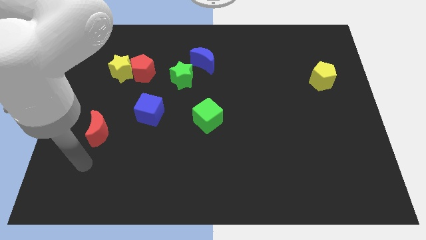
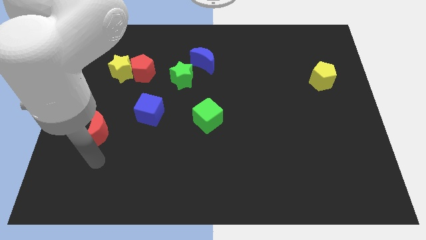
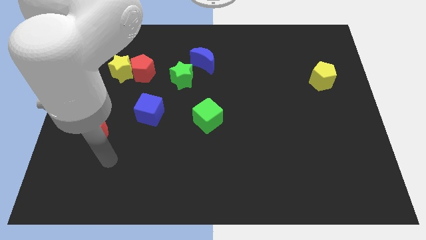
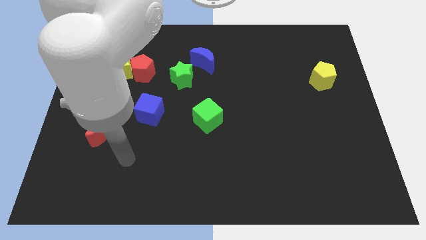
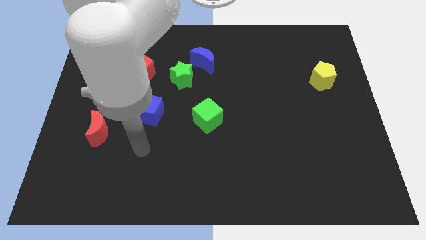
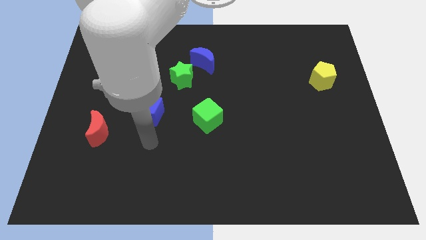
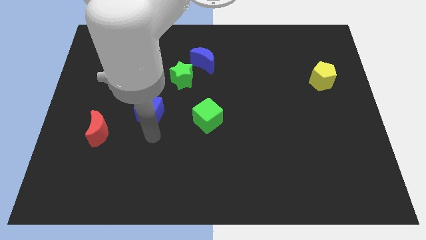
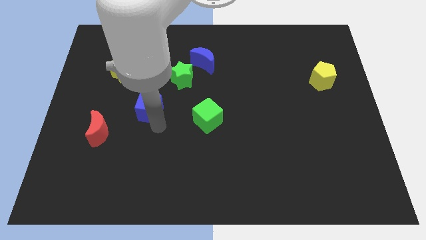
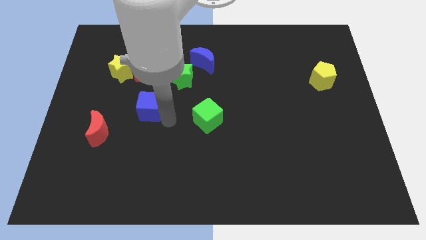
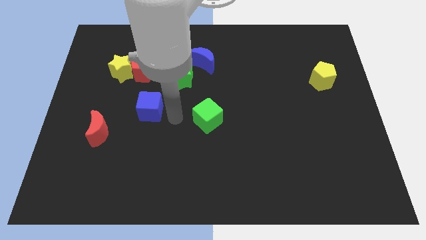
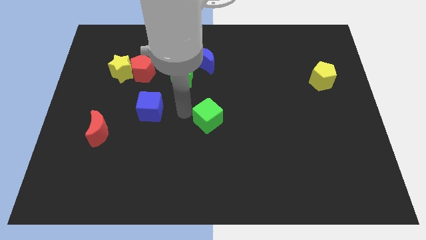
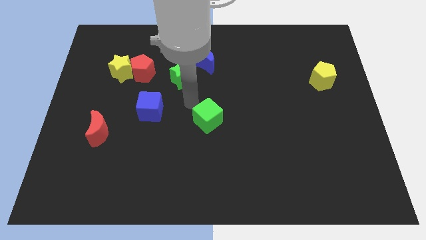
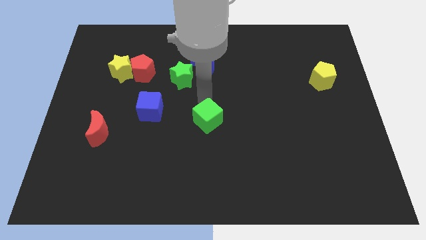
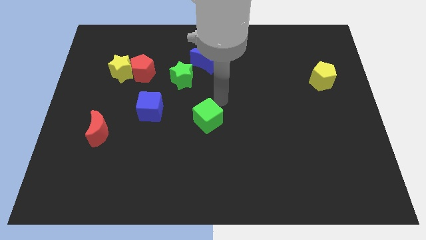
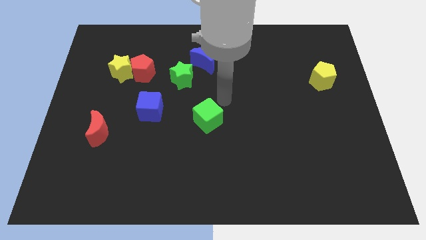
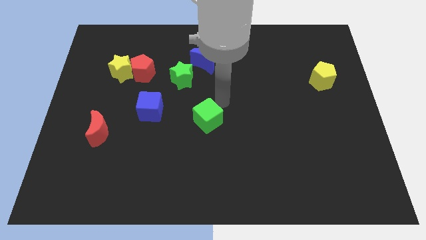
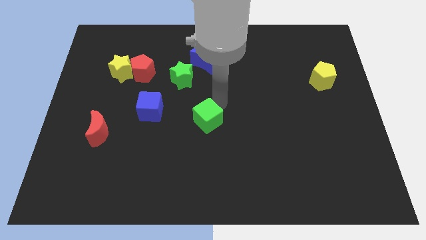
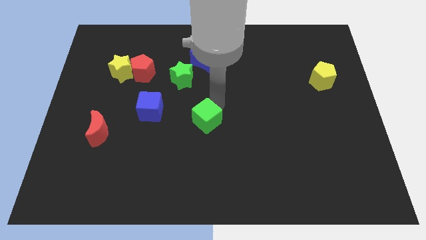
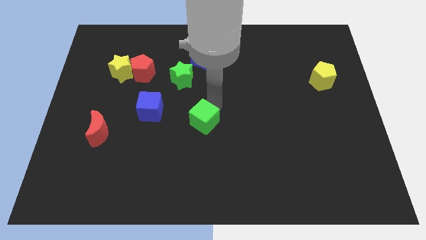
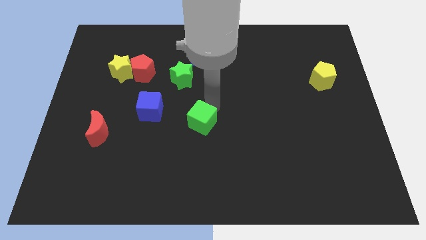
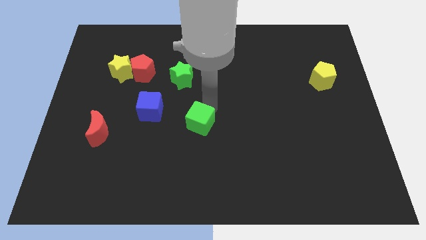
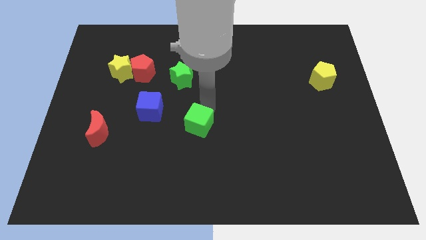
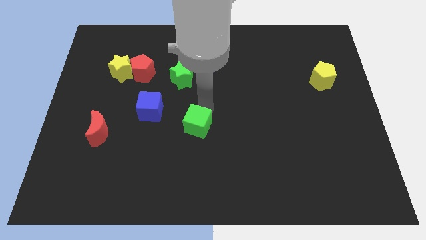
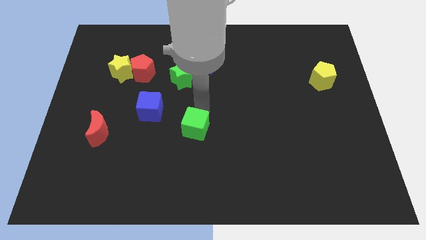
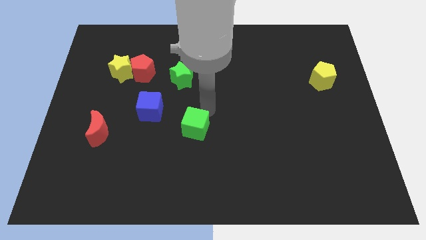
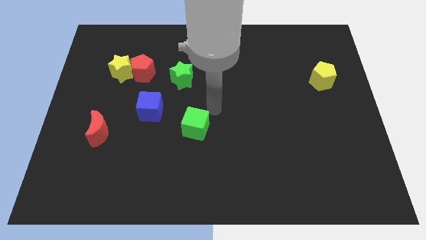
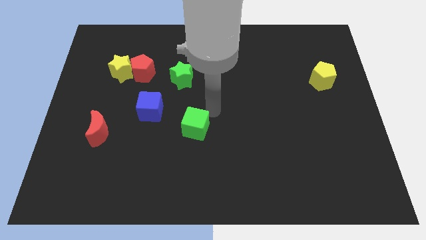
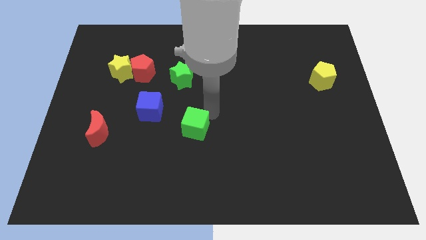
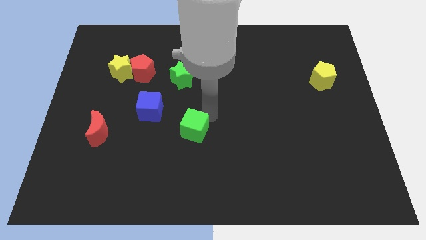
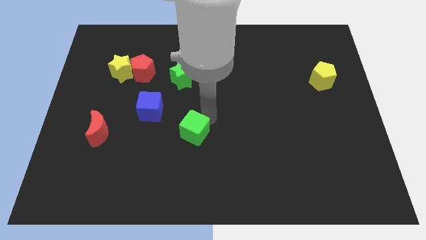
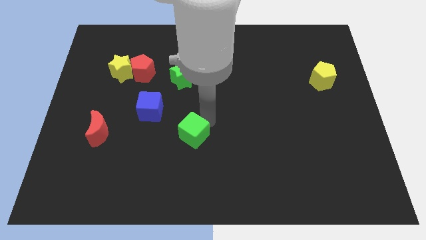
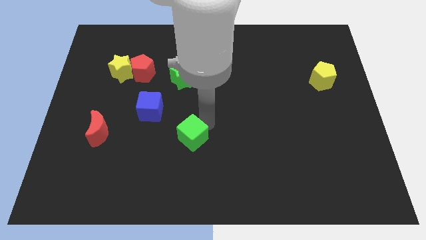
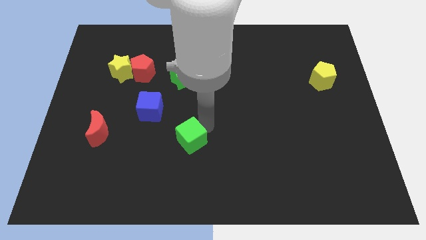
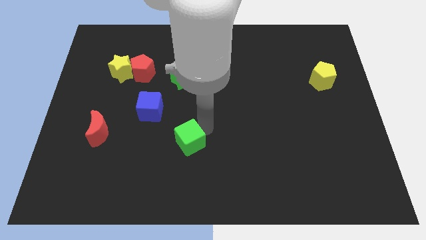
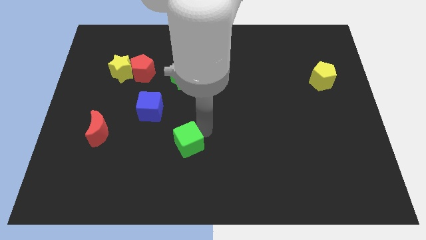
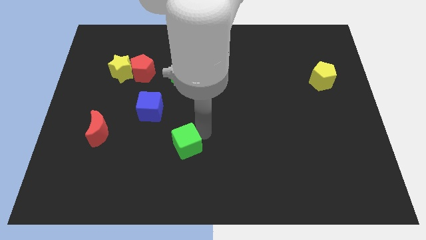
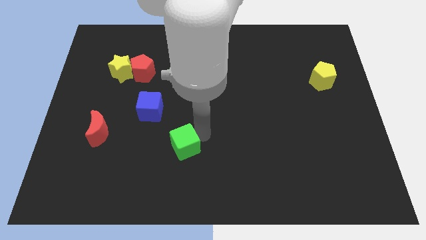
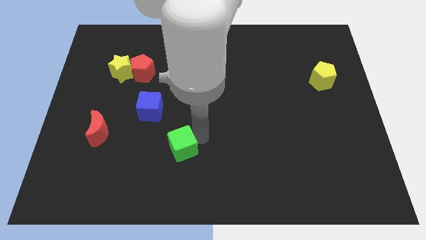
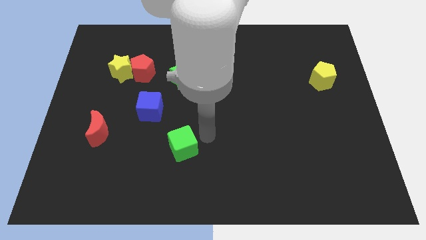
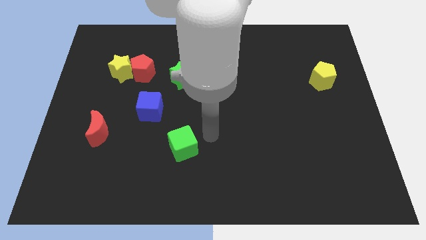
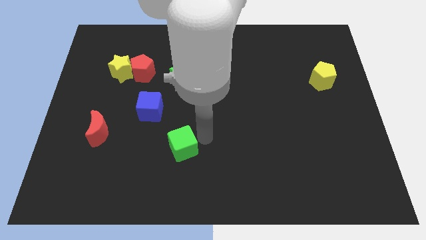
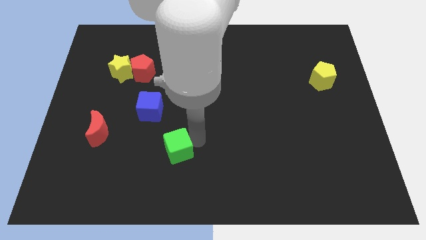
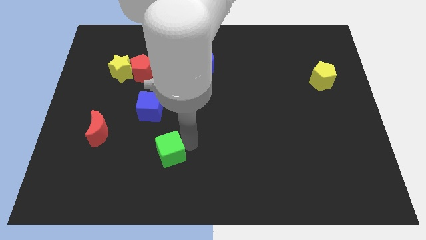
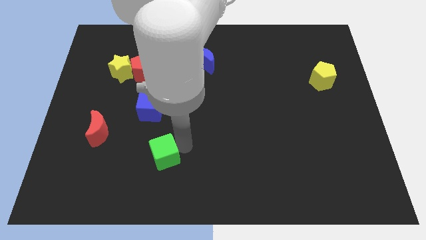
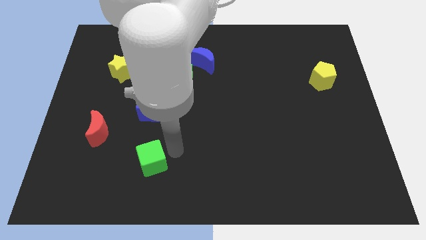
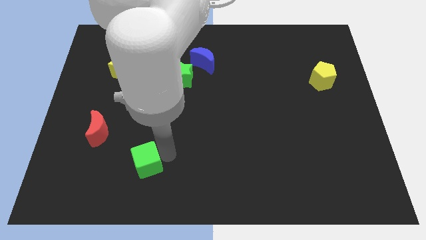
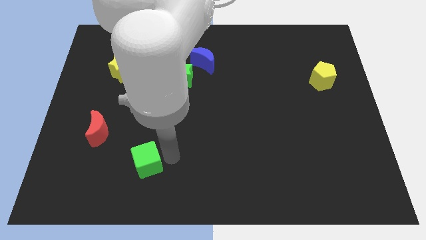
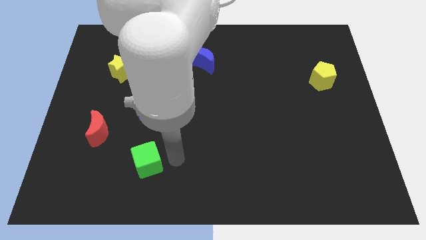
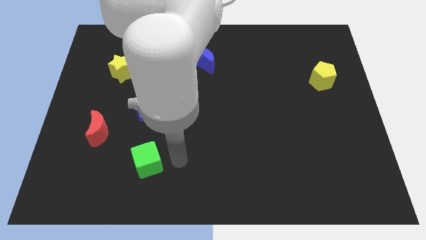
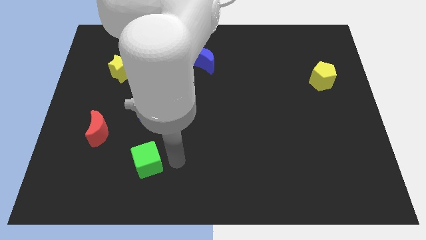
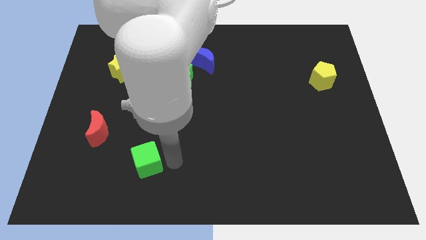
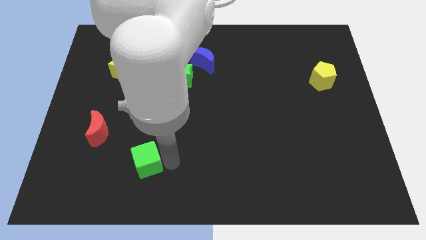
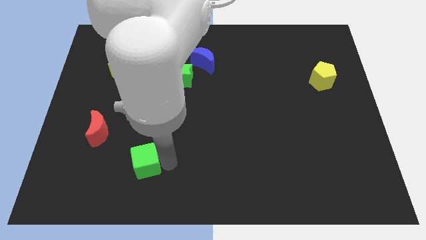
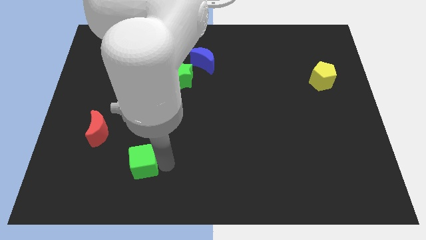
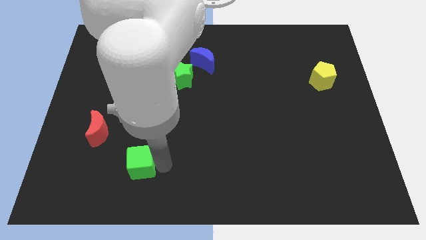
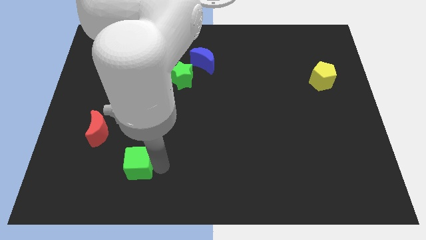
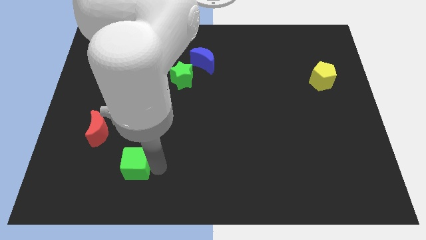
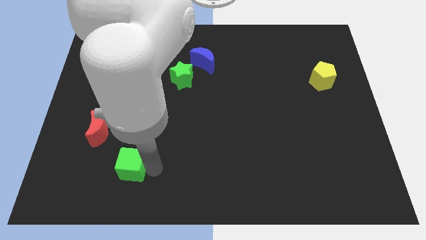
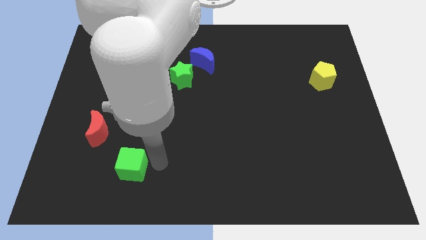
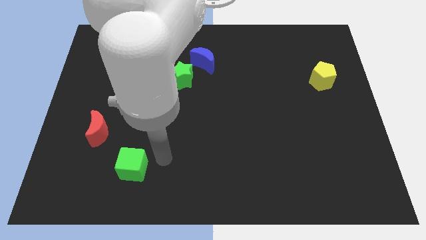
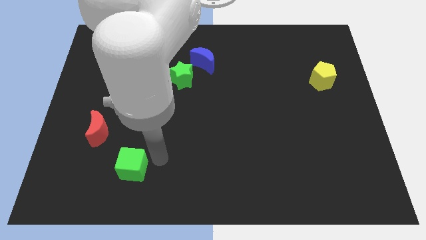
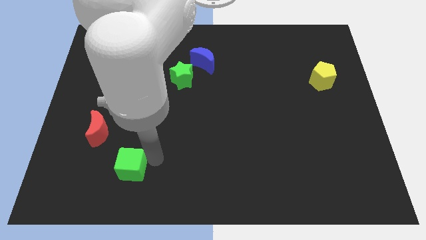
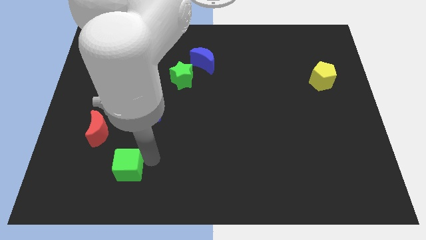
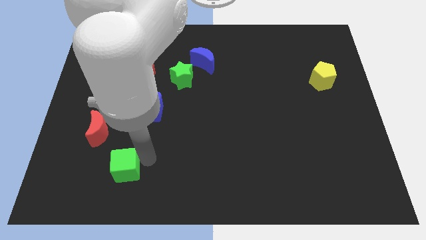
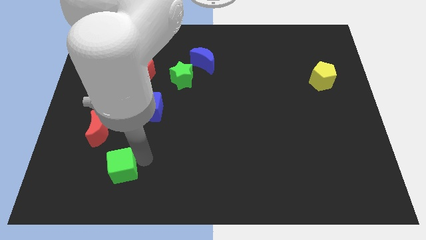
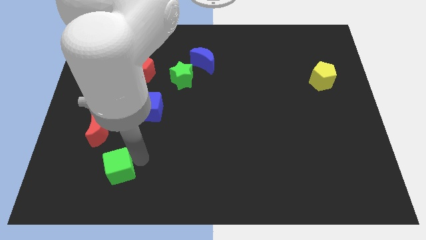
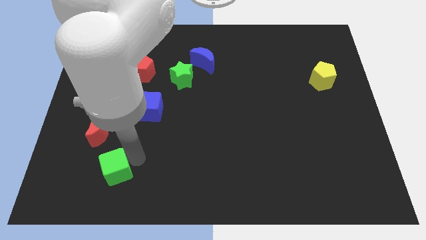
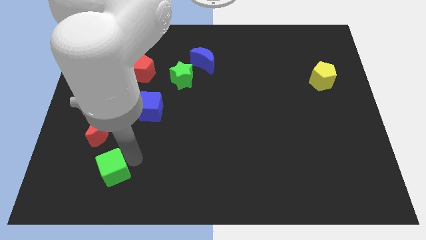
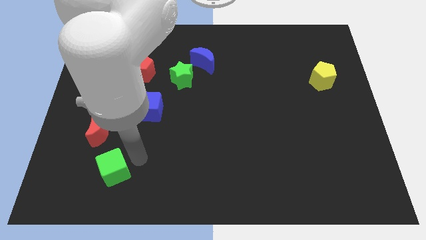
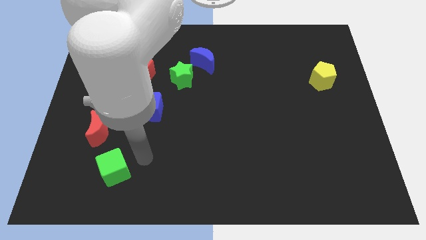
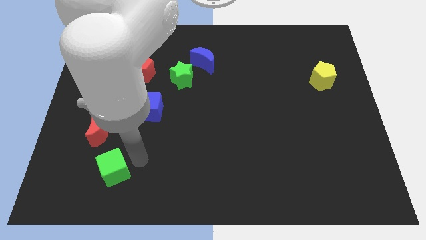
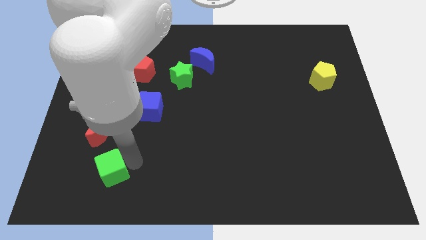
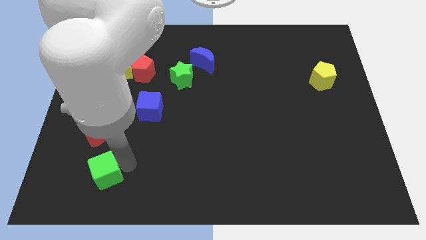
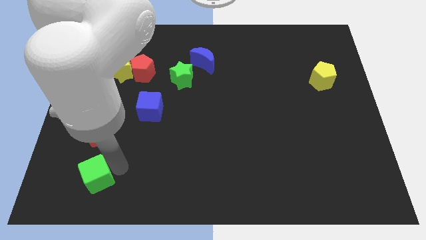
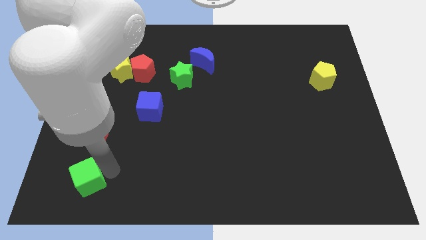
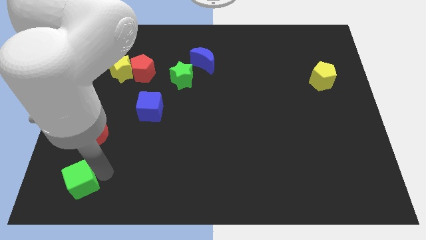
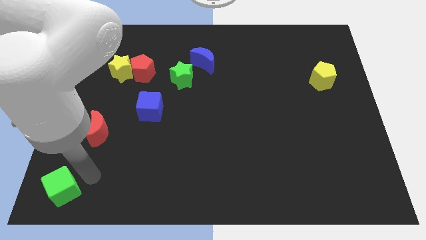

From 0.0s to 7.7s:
put the green cube to the bottom left of the board
